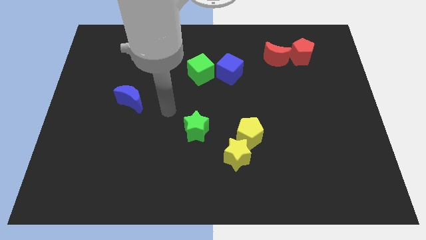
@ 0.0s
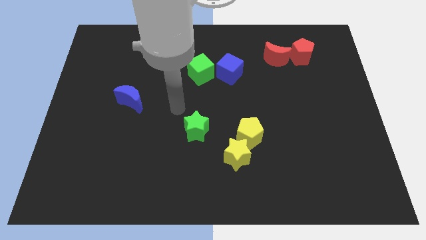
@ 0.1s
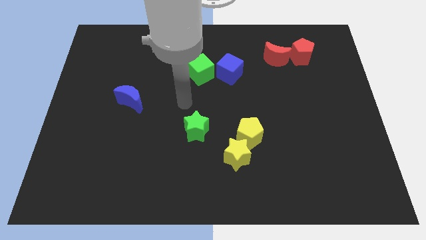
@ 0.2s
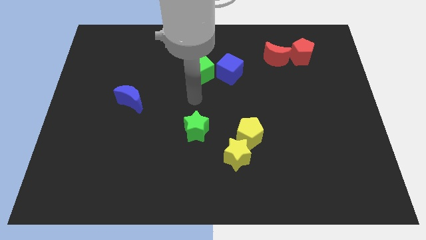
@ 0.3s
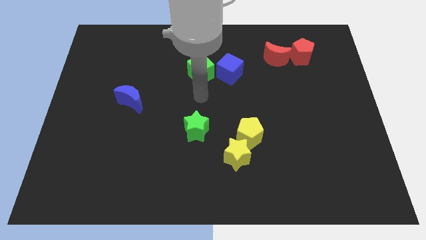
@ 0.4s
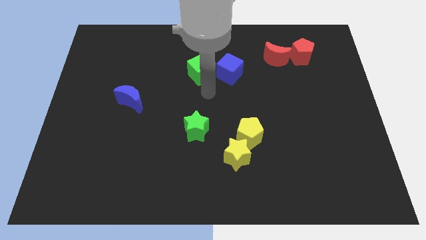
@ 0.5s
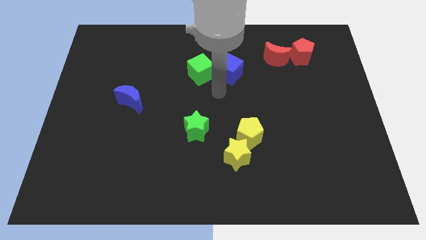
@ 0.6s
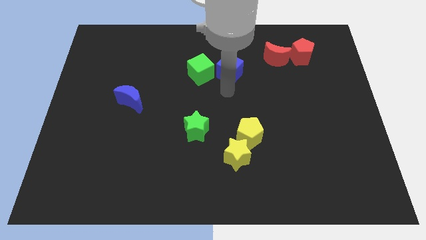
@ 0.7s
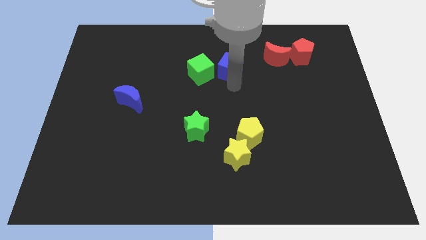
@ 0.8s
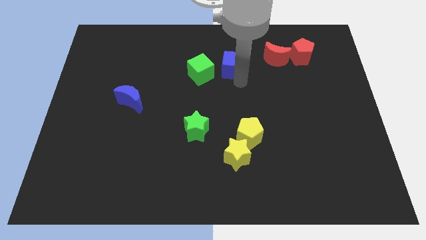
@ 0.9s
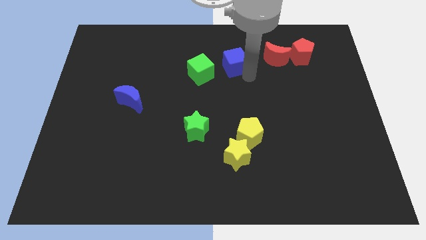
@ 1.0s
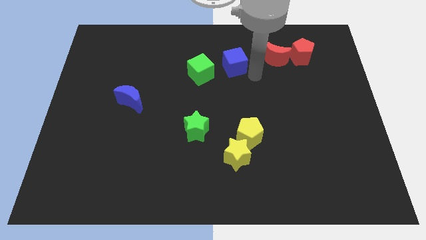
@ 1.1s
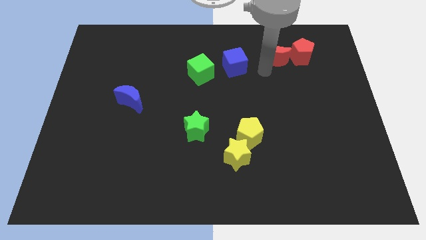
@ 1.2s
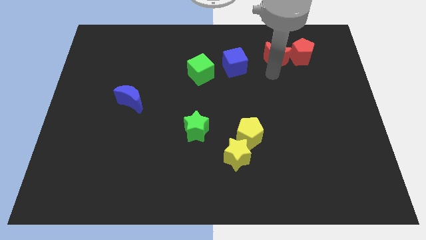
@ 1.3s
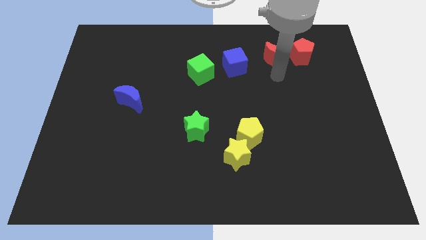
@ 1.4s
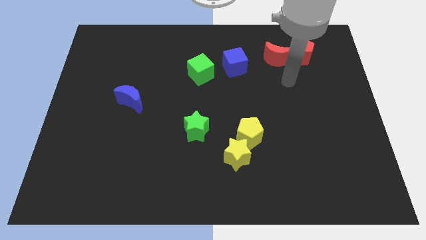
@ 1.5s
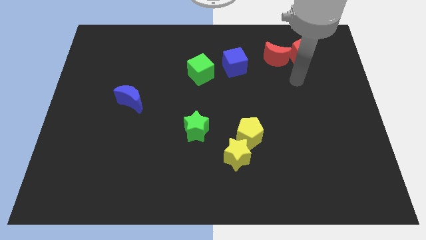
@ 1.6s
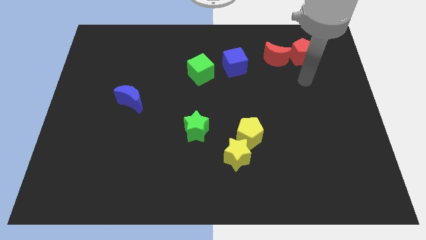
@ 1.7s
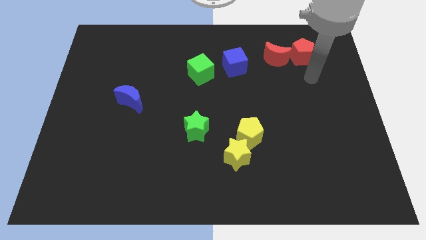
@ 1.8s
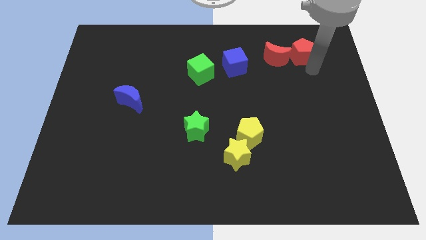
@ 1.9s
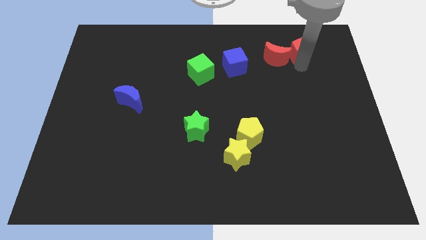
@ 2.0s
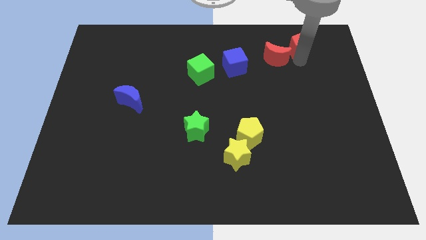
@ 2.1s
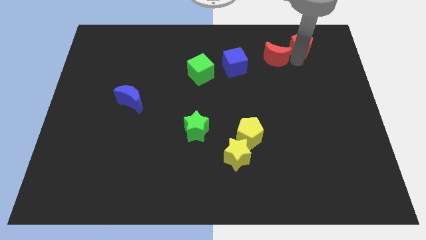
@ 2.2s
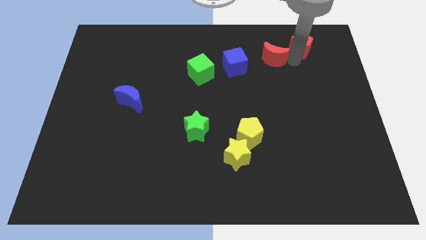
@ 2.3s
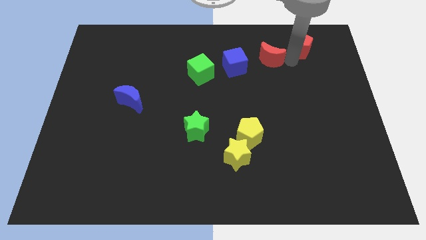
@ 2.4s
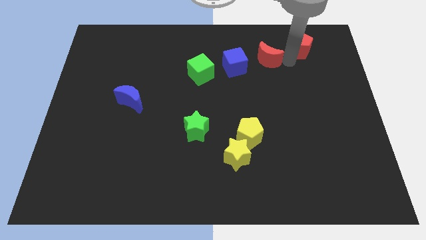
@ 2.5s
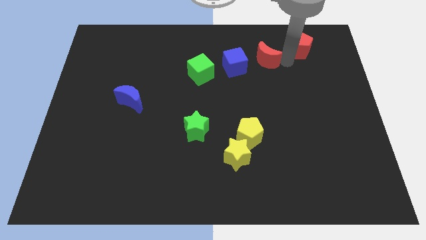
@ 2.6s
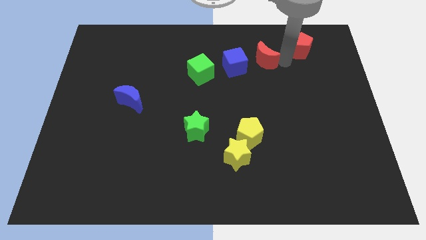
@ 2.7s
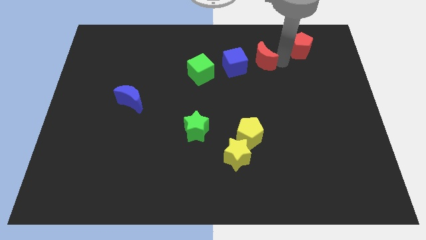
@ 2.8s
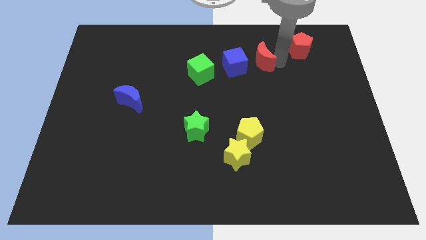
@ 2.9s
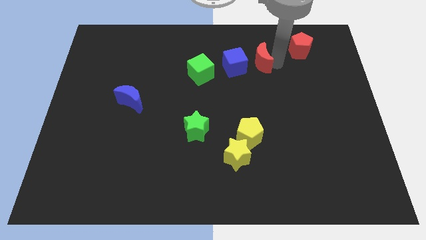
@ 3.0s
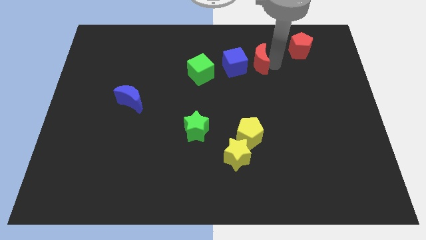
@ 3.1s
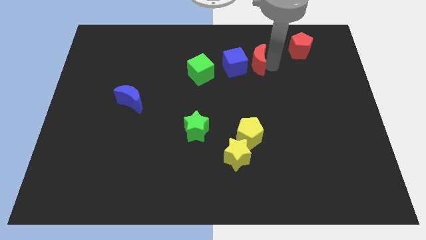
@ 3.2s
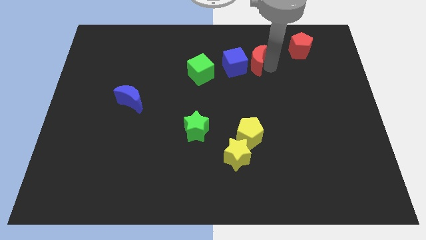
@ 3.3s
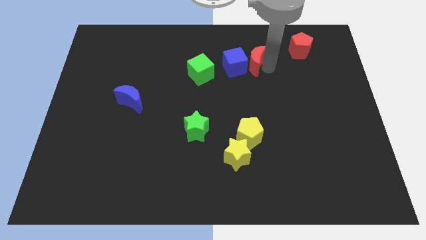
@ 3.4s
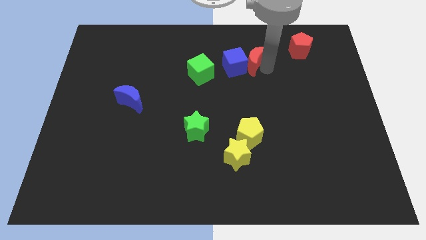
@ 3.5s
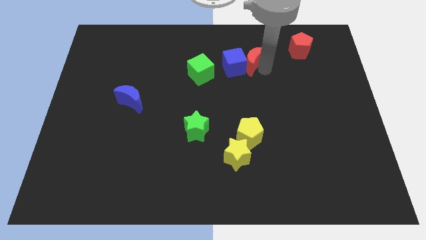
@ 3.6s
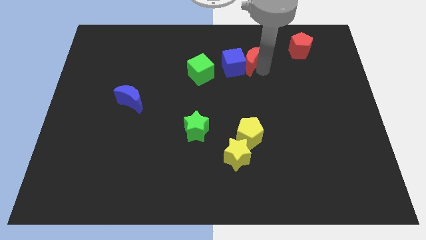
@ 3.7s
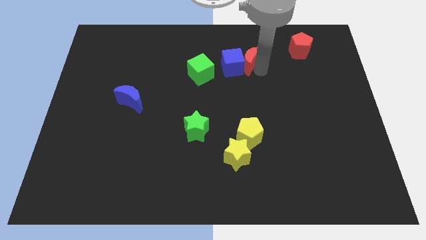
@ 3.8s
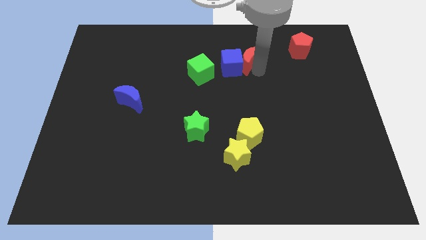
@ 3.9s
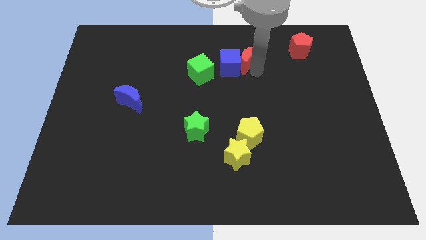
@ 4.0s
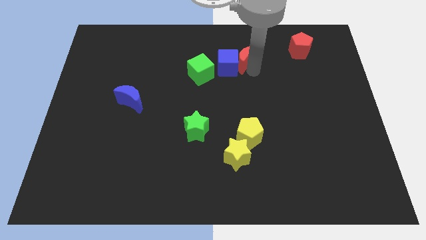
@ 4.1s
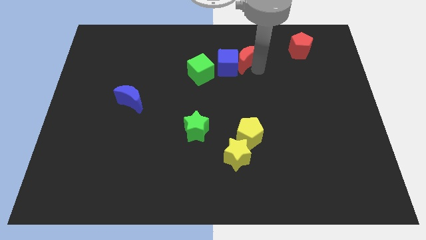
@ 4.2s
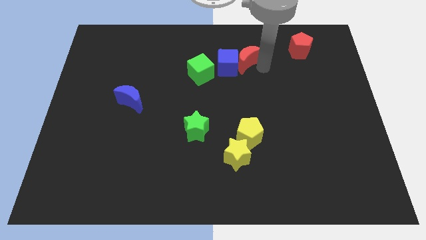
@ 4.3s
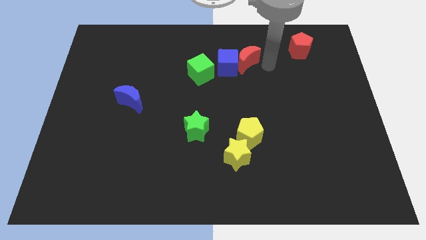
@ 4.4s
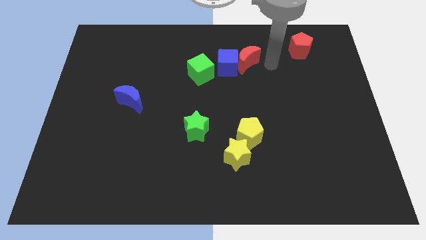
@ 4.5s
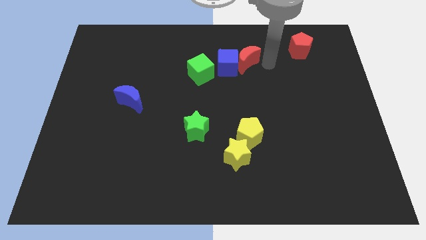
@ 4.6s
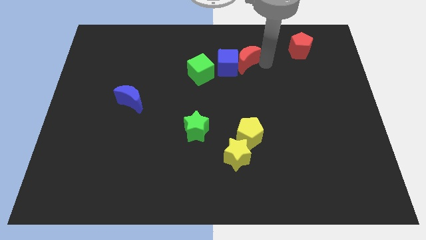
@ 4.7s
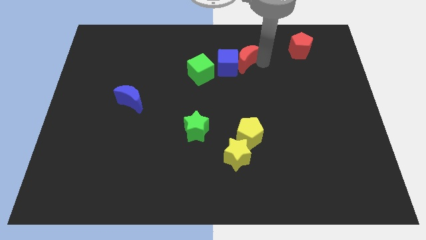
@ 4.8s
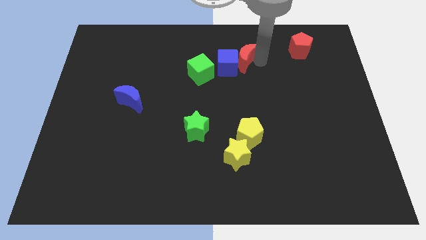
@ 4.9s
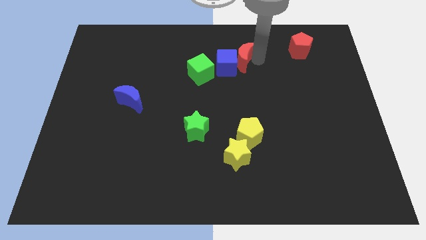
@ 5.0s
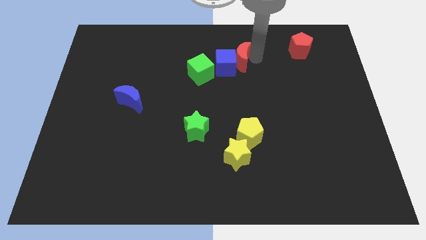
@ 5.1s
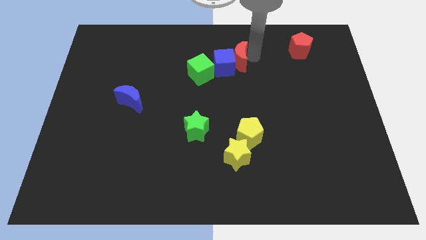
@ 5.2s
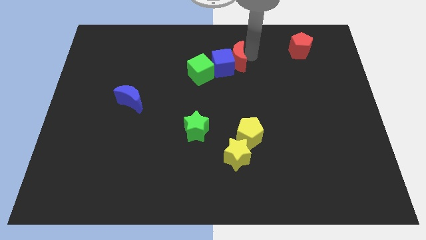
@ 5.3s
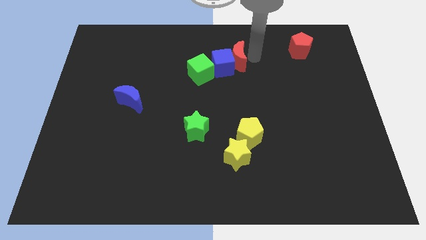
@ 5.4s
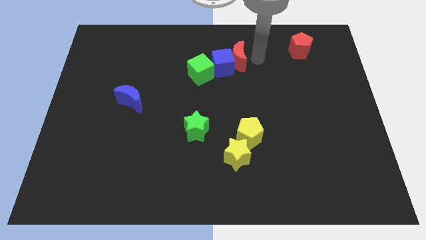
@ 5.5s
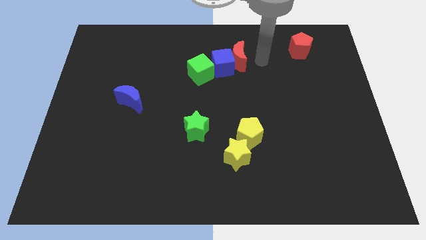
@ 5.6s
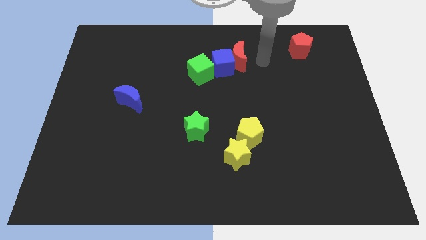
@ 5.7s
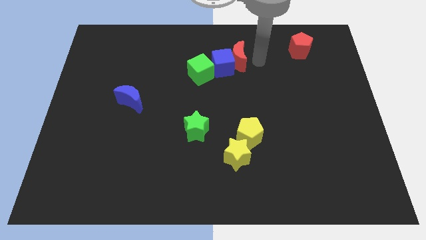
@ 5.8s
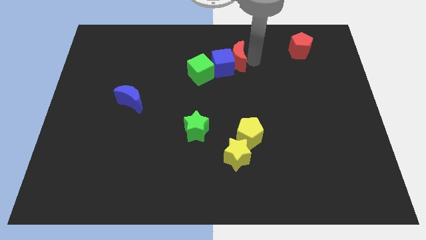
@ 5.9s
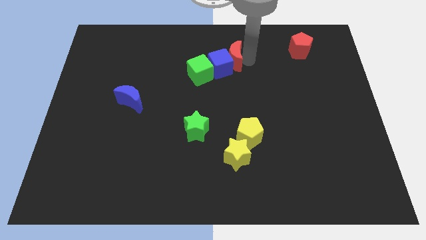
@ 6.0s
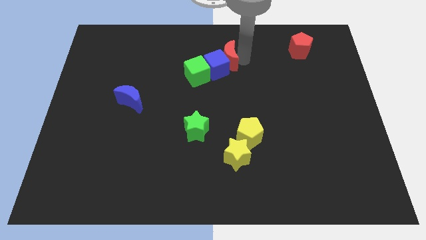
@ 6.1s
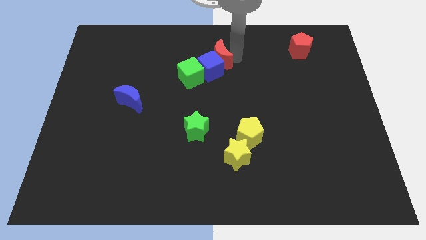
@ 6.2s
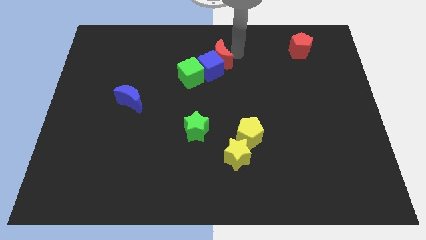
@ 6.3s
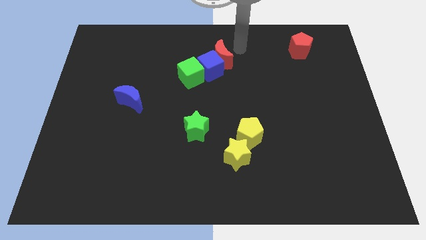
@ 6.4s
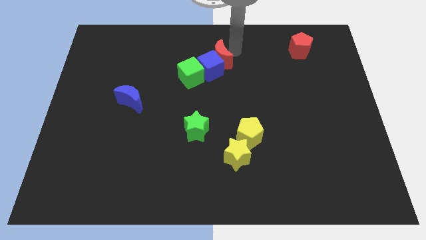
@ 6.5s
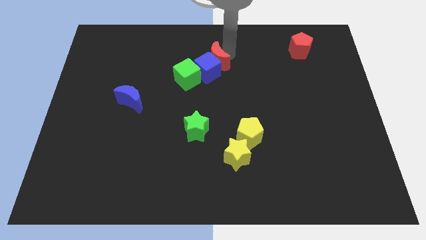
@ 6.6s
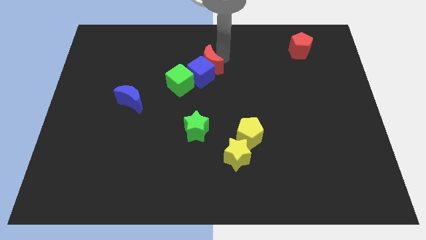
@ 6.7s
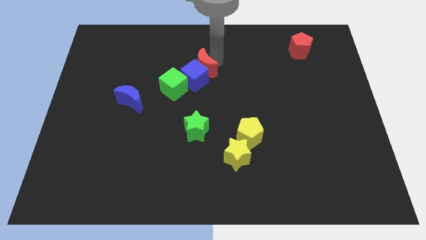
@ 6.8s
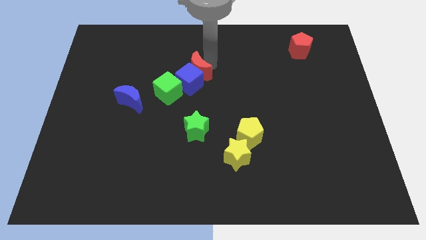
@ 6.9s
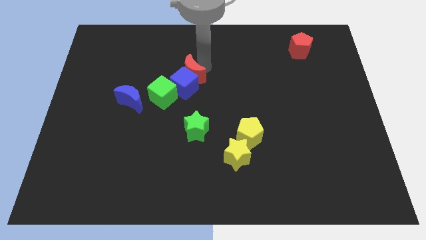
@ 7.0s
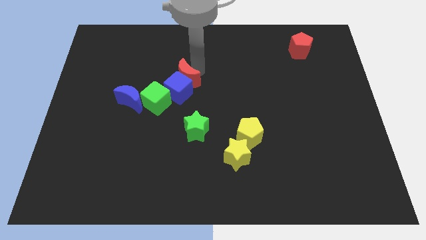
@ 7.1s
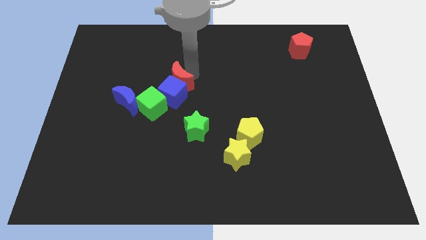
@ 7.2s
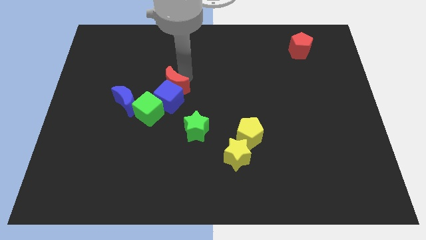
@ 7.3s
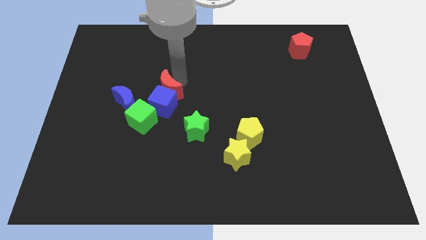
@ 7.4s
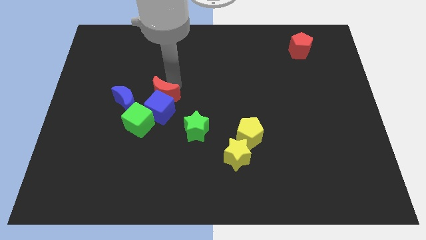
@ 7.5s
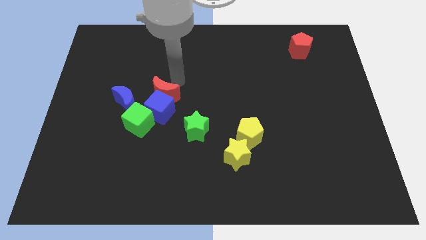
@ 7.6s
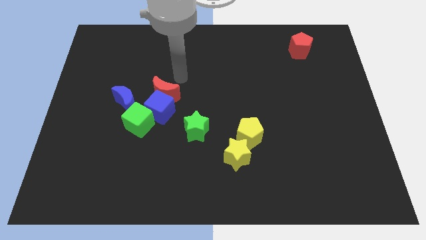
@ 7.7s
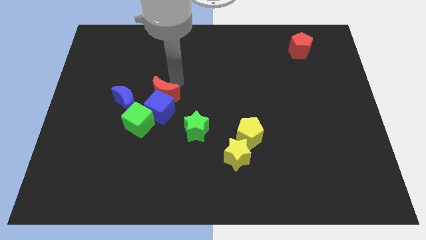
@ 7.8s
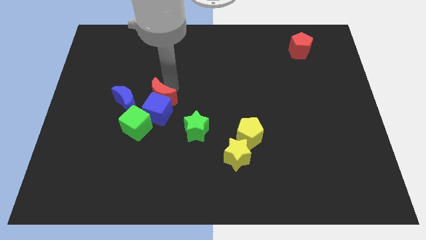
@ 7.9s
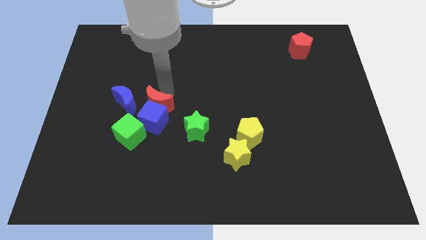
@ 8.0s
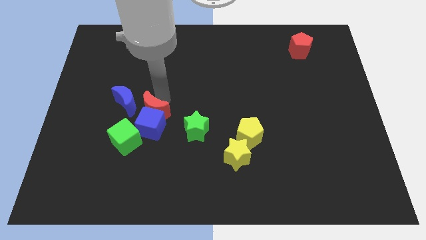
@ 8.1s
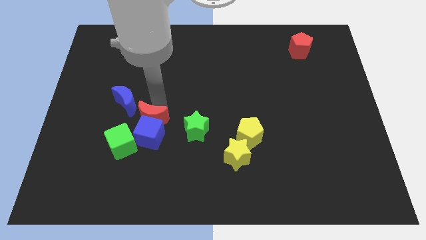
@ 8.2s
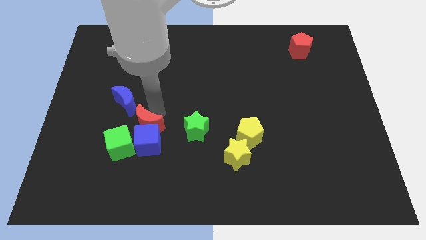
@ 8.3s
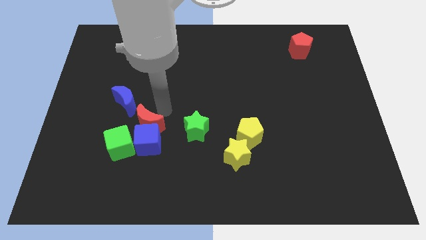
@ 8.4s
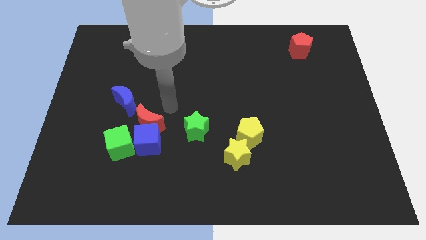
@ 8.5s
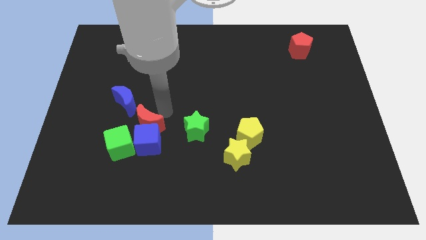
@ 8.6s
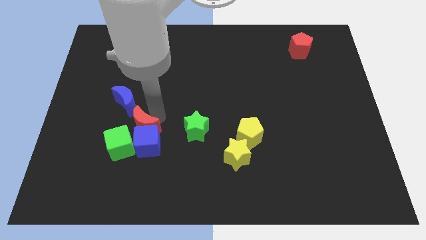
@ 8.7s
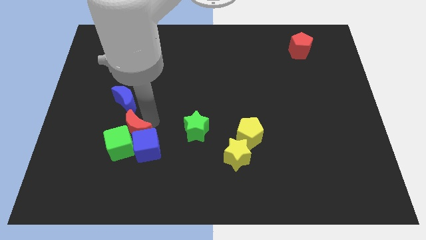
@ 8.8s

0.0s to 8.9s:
slide the red moon to the green cube
